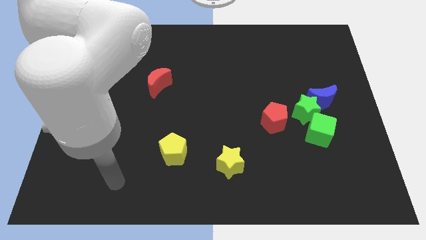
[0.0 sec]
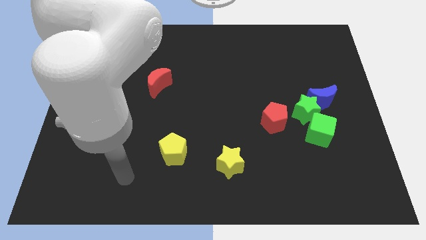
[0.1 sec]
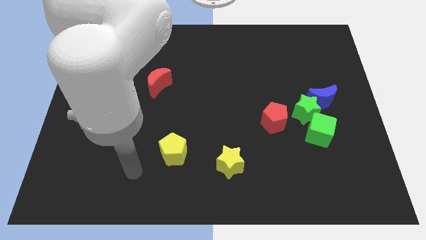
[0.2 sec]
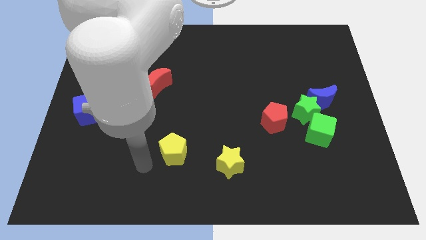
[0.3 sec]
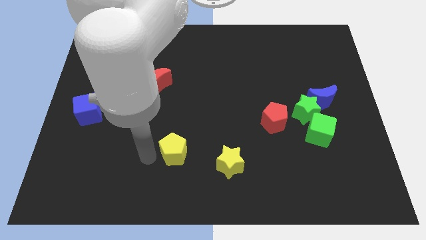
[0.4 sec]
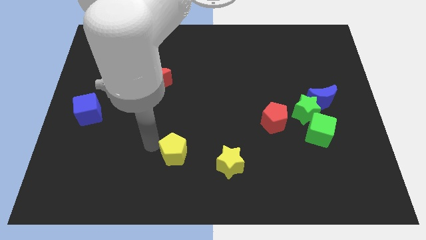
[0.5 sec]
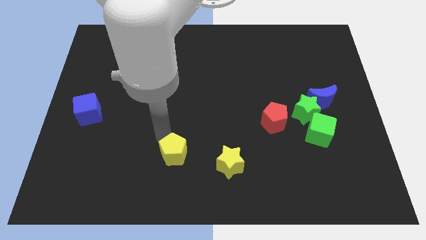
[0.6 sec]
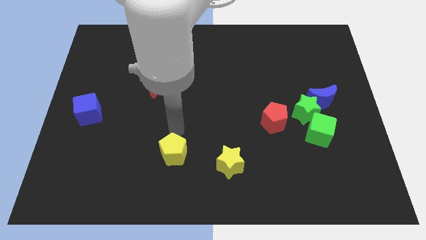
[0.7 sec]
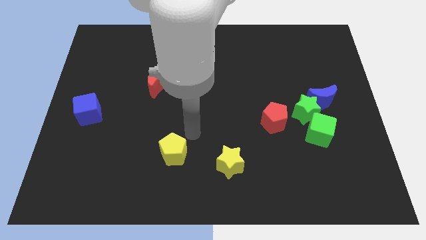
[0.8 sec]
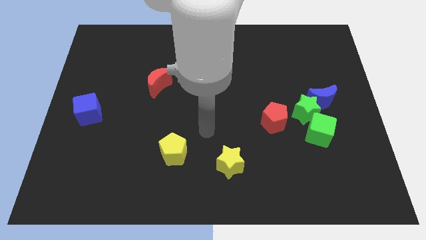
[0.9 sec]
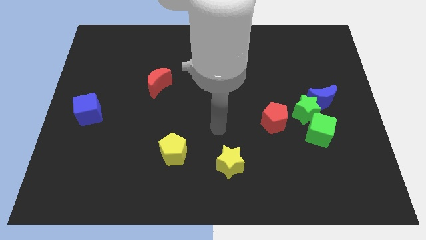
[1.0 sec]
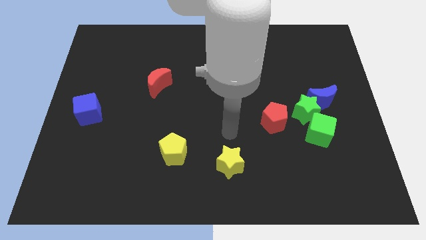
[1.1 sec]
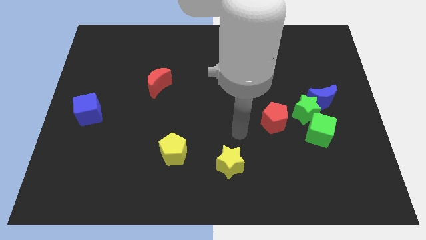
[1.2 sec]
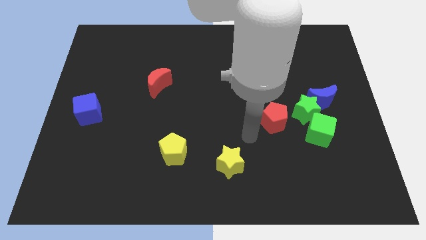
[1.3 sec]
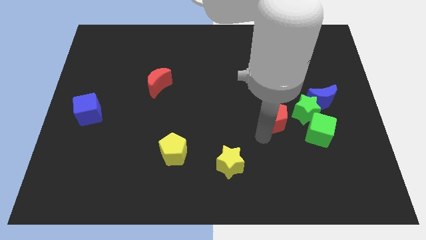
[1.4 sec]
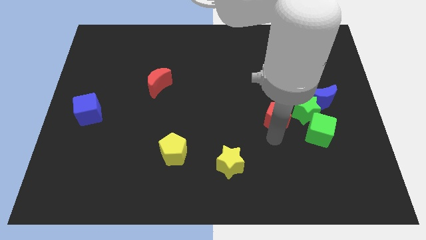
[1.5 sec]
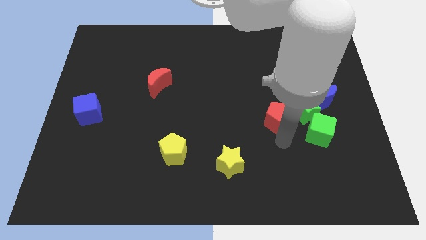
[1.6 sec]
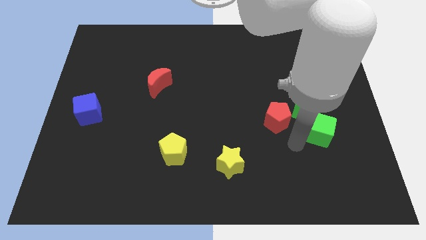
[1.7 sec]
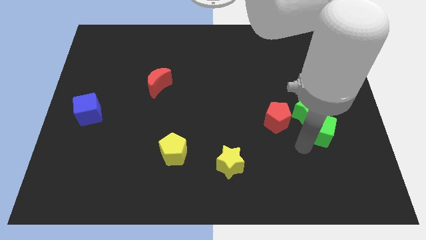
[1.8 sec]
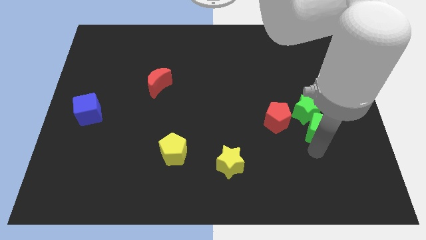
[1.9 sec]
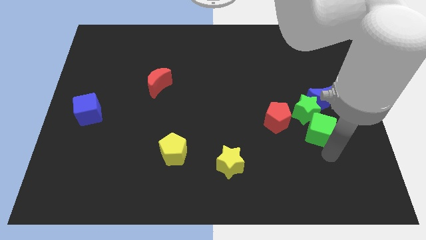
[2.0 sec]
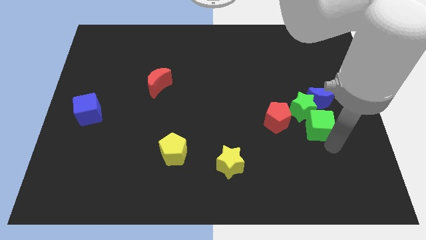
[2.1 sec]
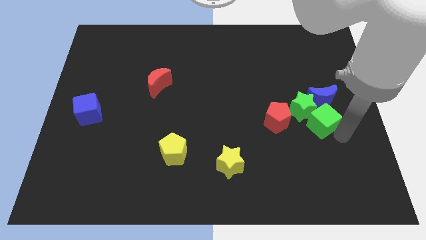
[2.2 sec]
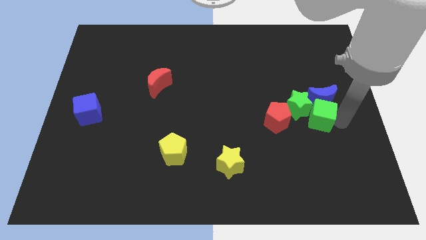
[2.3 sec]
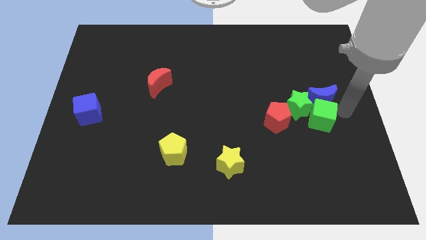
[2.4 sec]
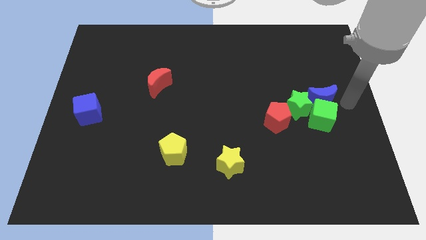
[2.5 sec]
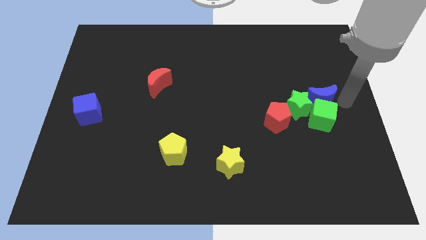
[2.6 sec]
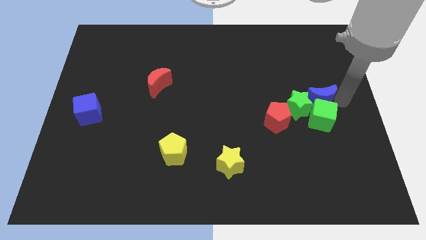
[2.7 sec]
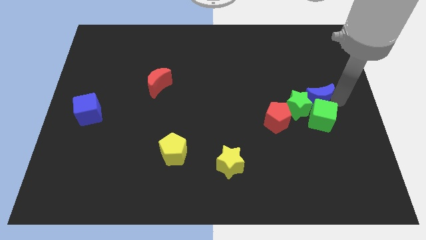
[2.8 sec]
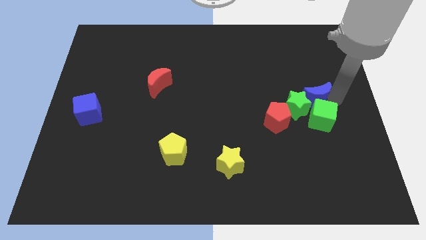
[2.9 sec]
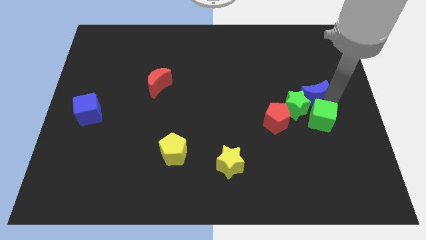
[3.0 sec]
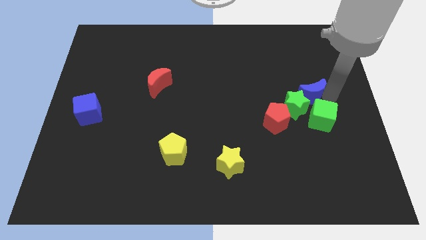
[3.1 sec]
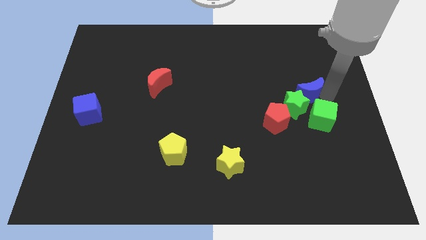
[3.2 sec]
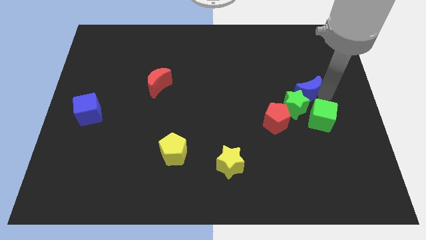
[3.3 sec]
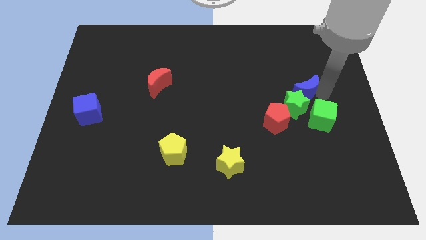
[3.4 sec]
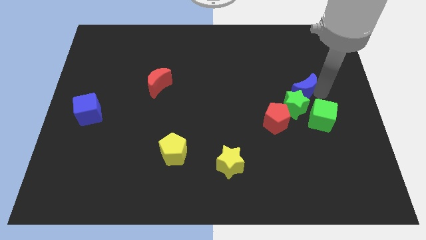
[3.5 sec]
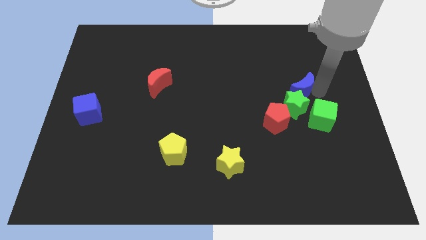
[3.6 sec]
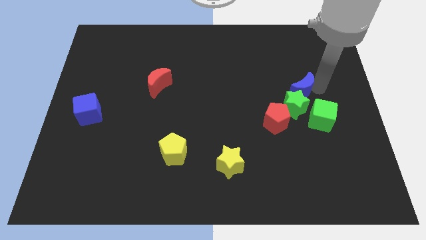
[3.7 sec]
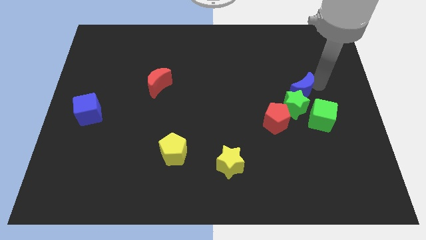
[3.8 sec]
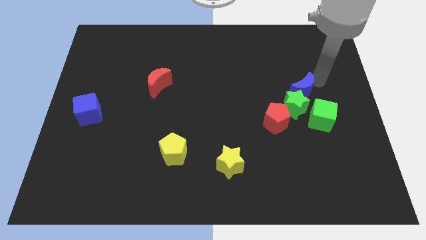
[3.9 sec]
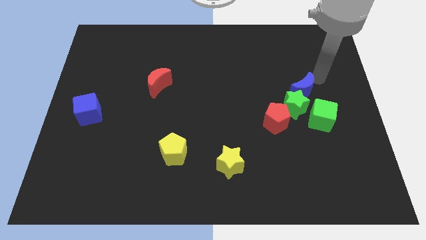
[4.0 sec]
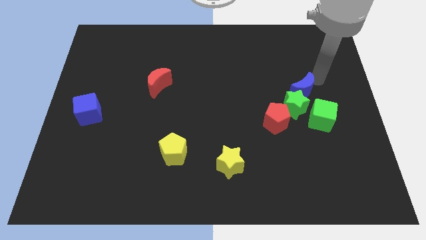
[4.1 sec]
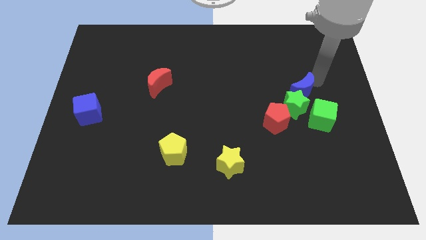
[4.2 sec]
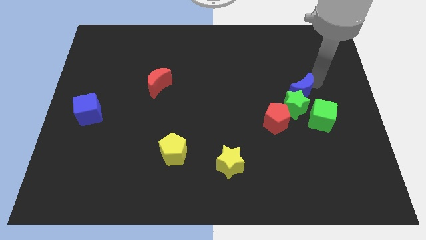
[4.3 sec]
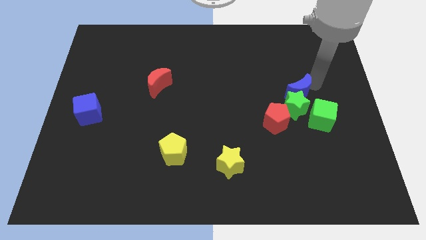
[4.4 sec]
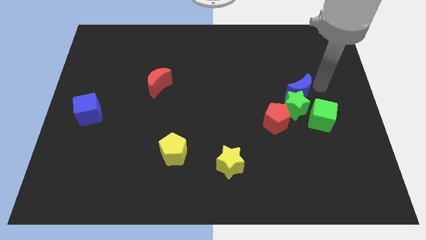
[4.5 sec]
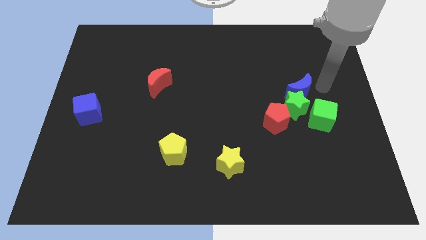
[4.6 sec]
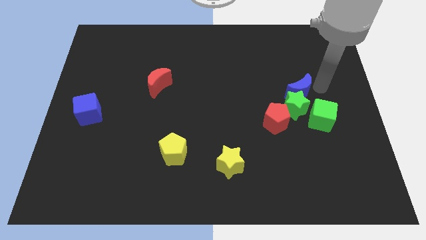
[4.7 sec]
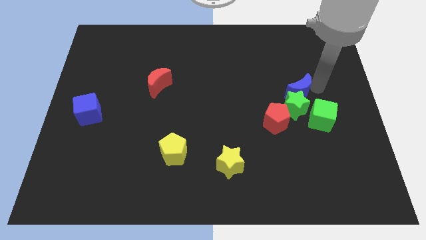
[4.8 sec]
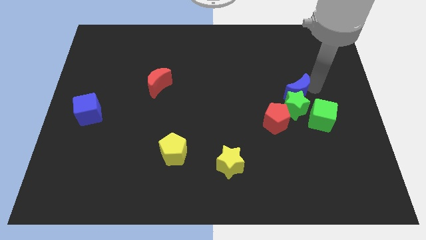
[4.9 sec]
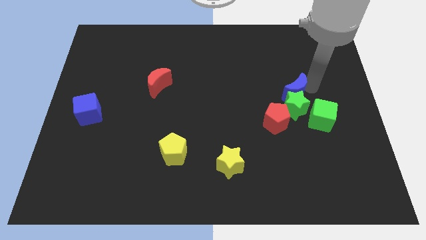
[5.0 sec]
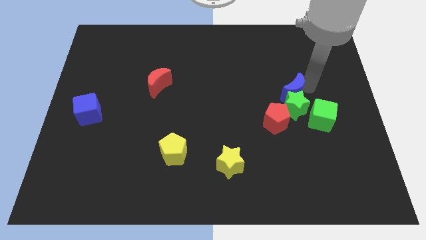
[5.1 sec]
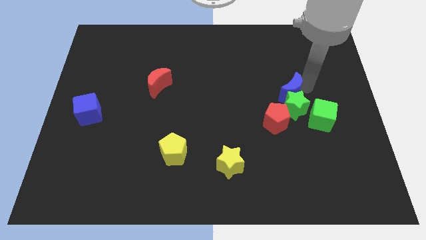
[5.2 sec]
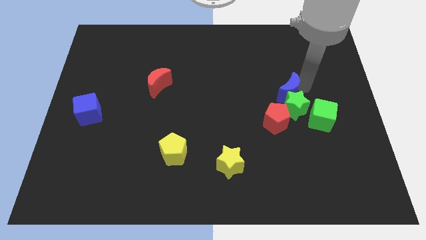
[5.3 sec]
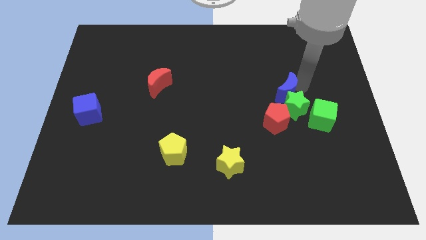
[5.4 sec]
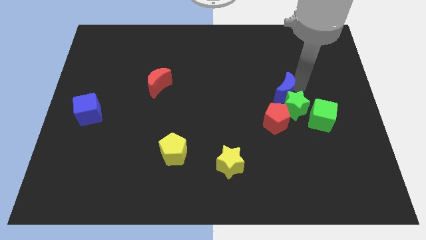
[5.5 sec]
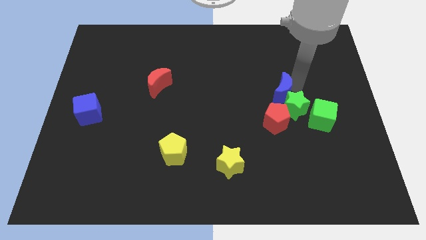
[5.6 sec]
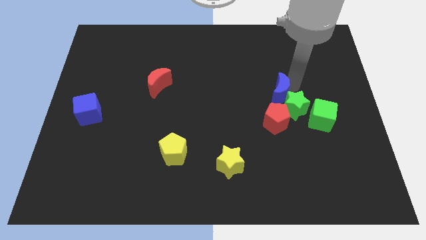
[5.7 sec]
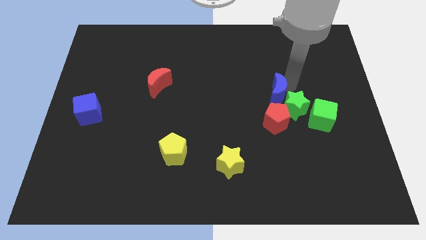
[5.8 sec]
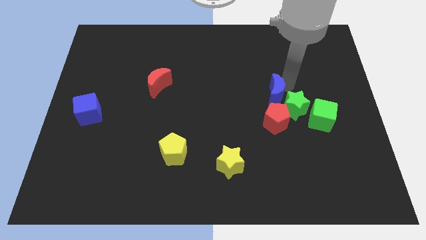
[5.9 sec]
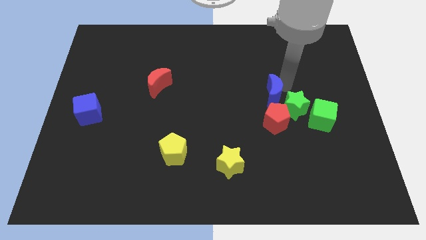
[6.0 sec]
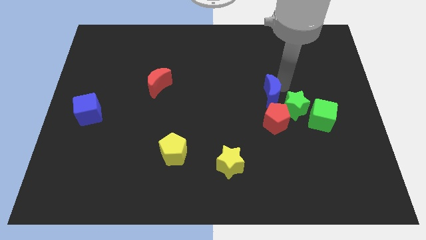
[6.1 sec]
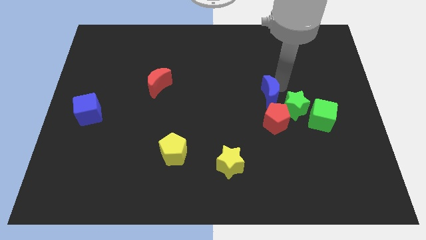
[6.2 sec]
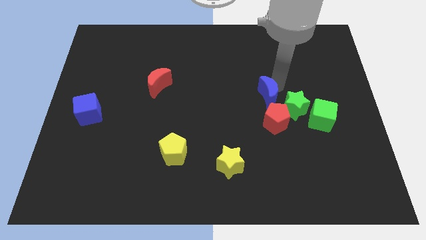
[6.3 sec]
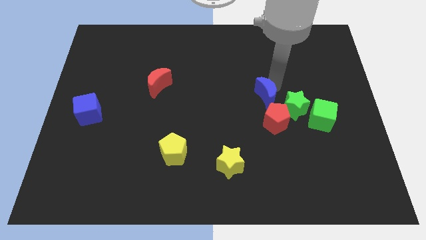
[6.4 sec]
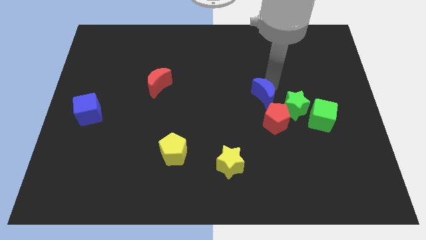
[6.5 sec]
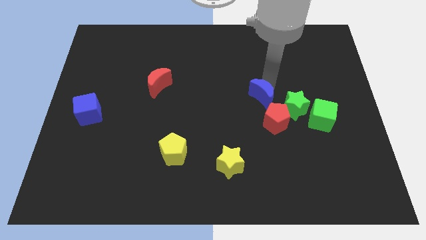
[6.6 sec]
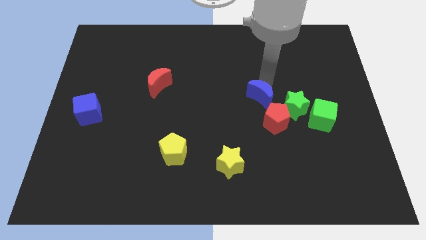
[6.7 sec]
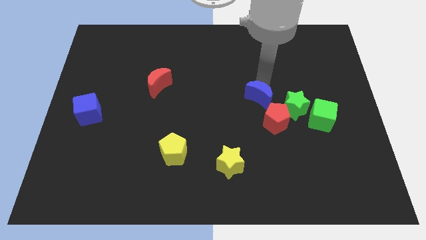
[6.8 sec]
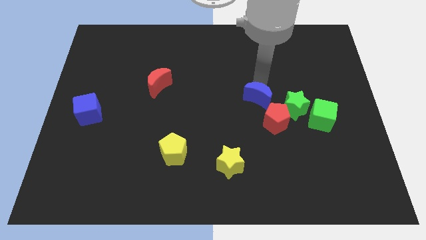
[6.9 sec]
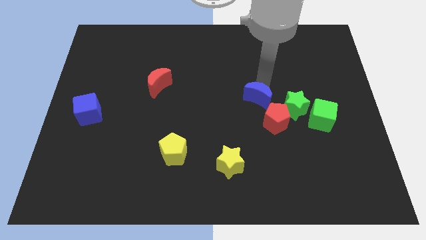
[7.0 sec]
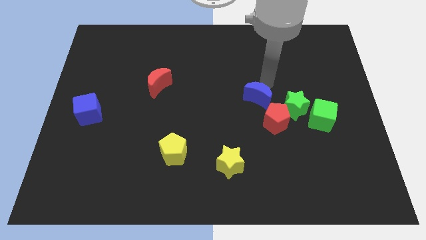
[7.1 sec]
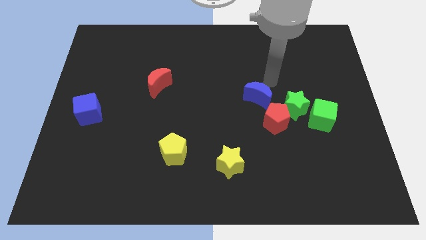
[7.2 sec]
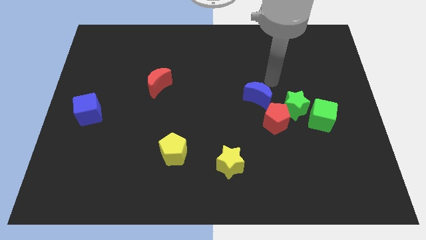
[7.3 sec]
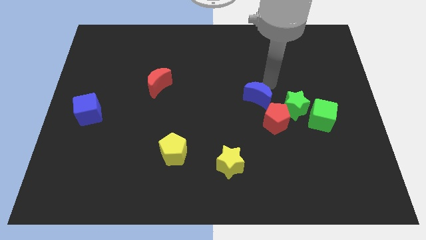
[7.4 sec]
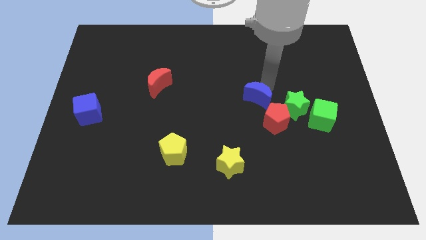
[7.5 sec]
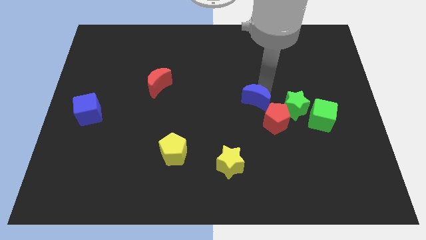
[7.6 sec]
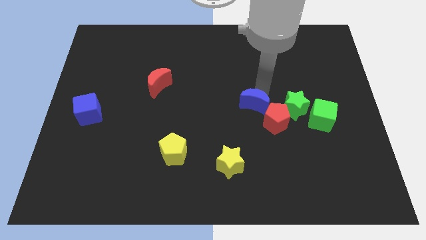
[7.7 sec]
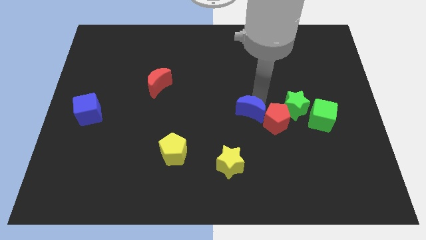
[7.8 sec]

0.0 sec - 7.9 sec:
push the blue moon just left of the red pentagon
